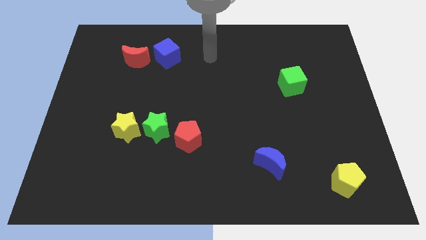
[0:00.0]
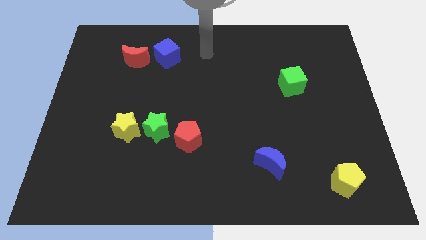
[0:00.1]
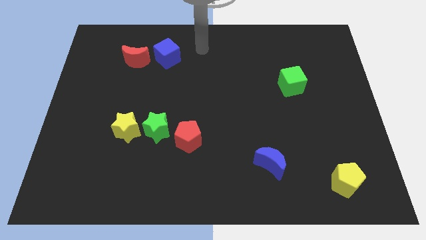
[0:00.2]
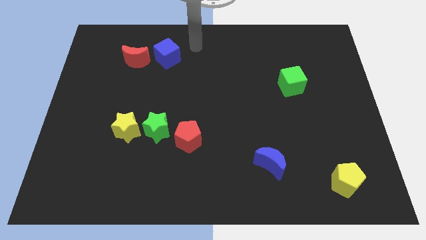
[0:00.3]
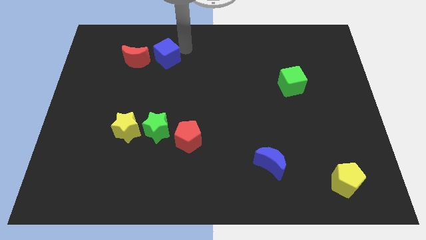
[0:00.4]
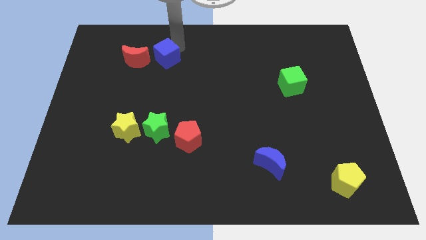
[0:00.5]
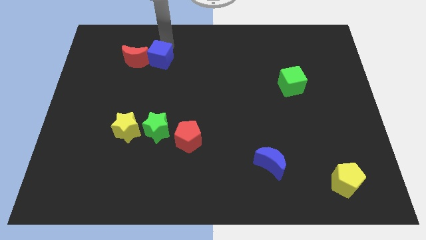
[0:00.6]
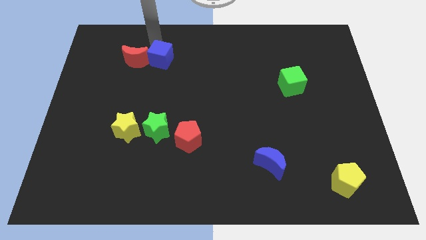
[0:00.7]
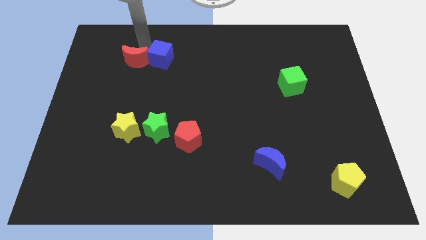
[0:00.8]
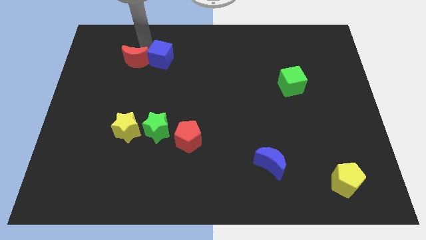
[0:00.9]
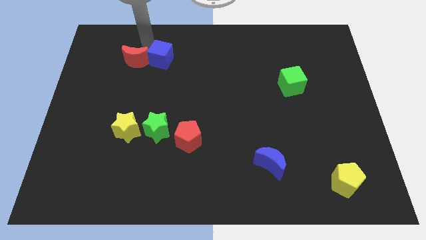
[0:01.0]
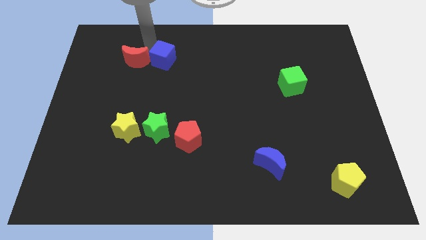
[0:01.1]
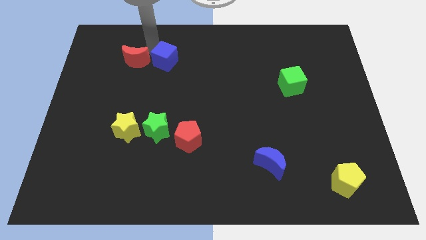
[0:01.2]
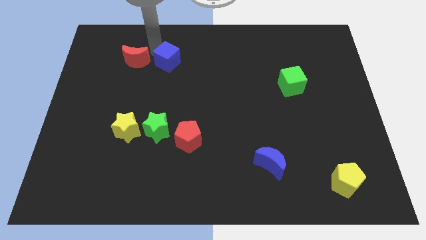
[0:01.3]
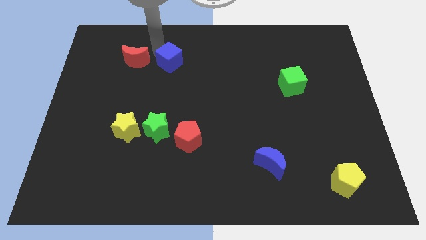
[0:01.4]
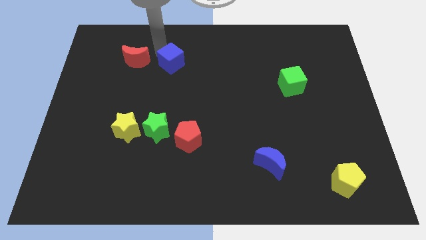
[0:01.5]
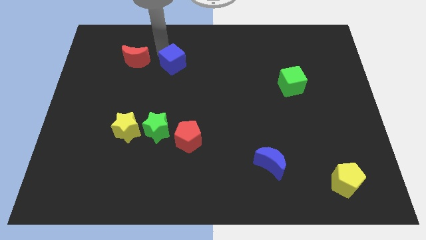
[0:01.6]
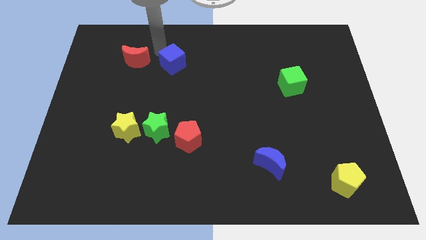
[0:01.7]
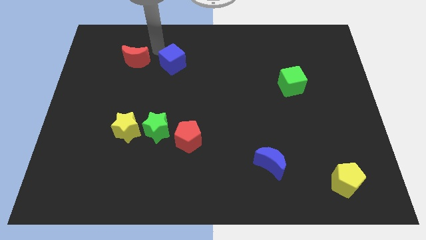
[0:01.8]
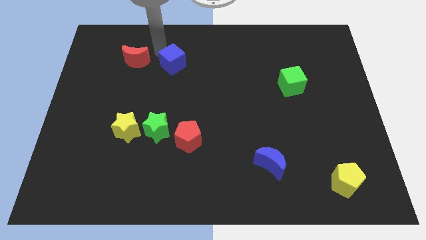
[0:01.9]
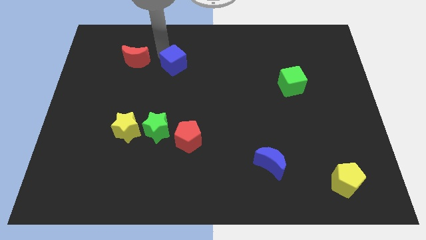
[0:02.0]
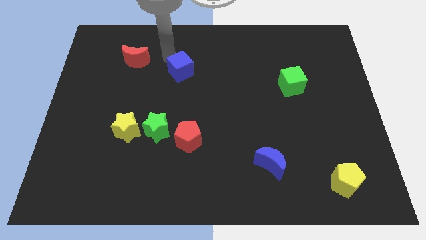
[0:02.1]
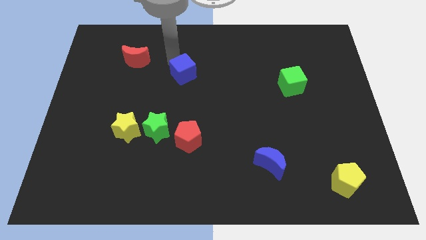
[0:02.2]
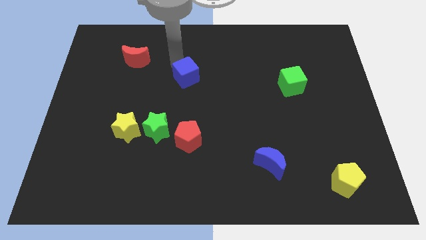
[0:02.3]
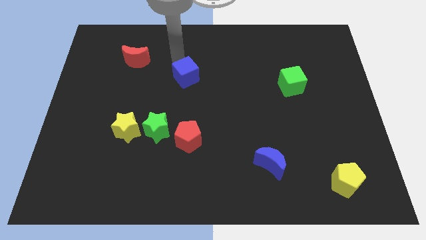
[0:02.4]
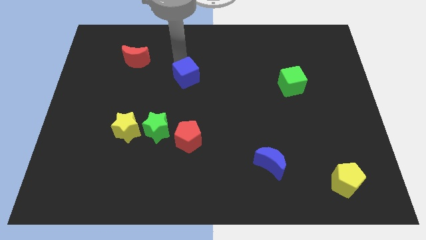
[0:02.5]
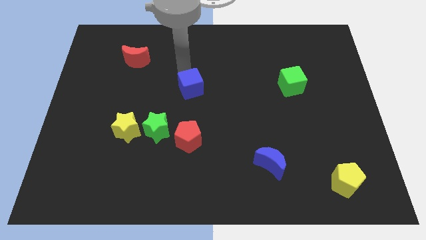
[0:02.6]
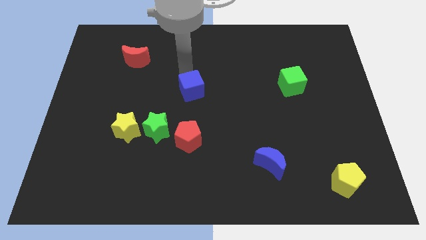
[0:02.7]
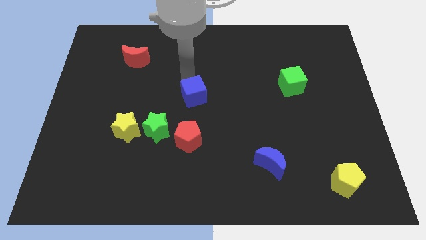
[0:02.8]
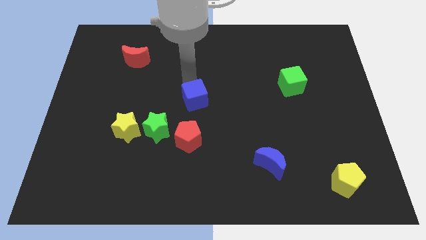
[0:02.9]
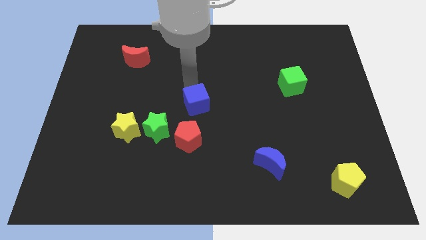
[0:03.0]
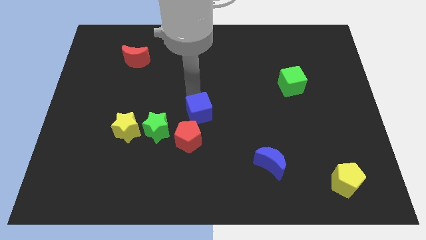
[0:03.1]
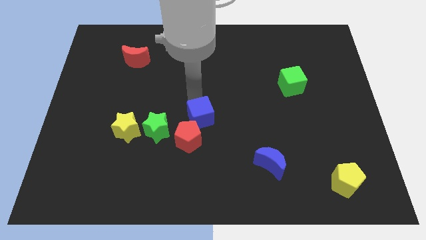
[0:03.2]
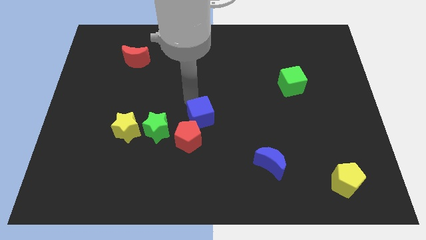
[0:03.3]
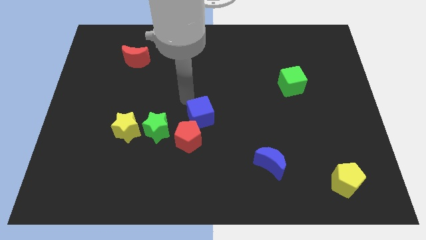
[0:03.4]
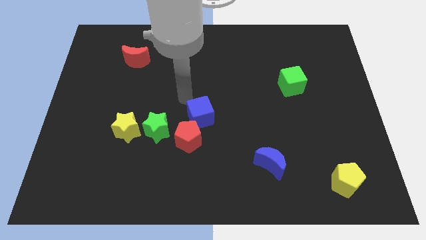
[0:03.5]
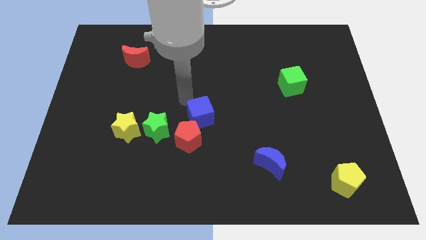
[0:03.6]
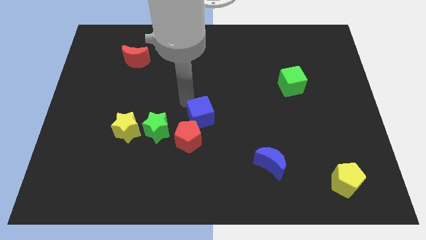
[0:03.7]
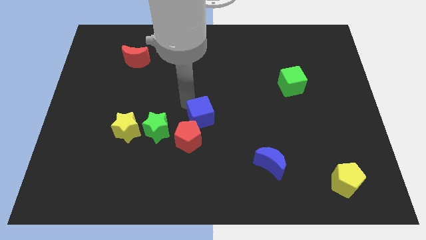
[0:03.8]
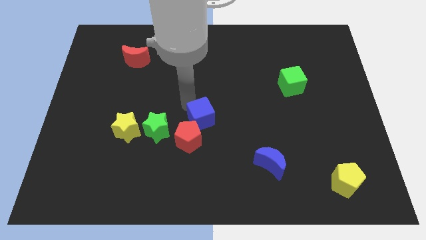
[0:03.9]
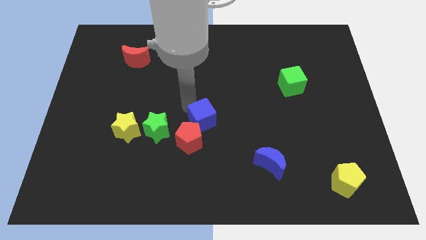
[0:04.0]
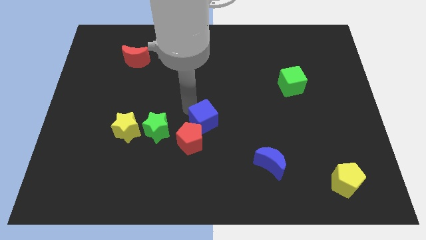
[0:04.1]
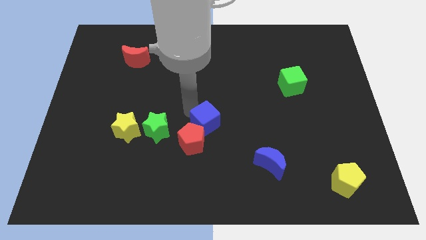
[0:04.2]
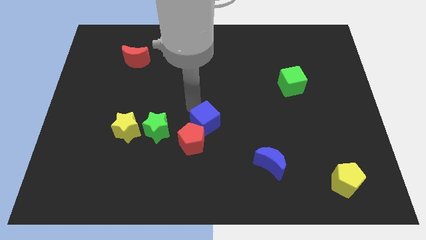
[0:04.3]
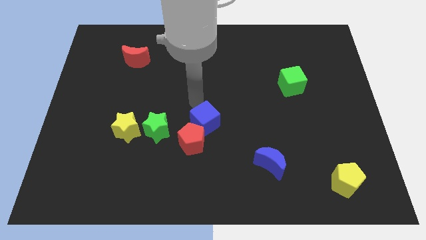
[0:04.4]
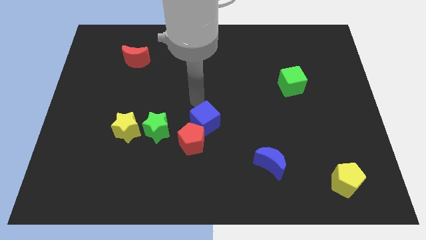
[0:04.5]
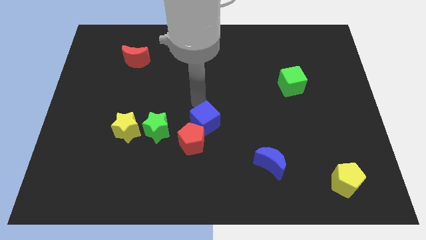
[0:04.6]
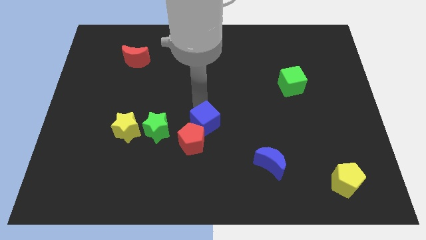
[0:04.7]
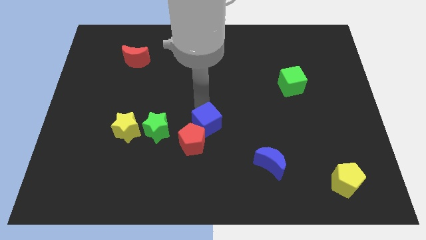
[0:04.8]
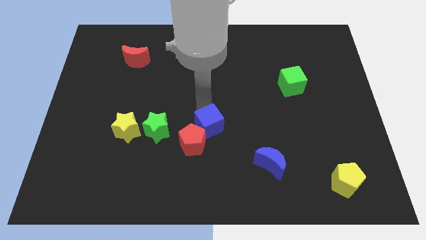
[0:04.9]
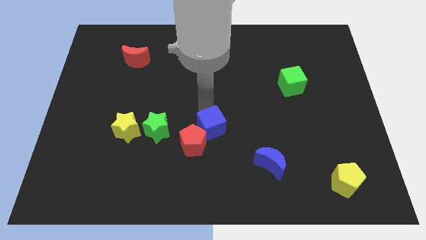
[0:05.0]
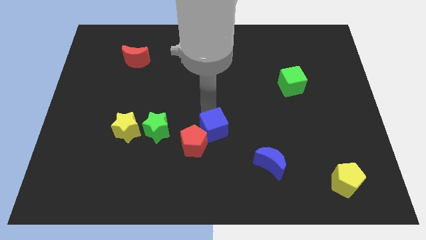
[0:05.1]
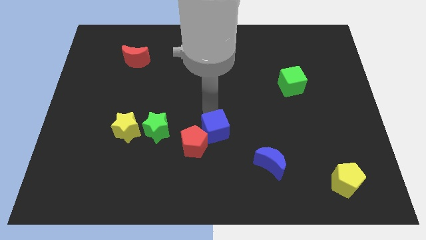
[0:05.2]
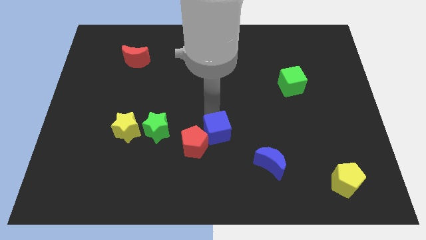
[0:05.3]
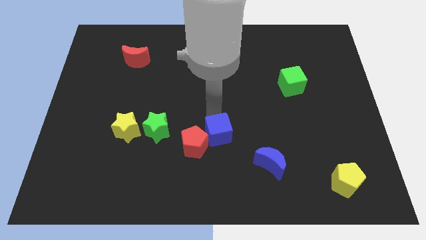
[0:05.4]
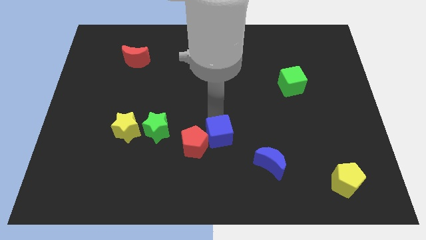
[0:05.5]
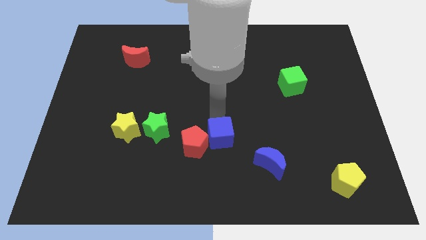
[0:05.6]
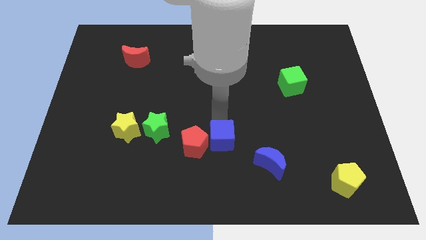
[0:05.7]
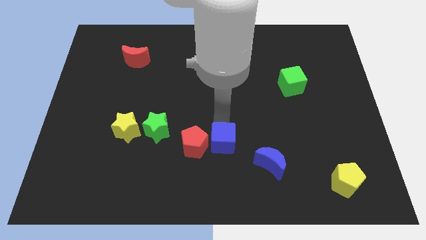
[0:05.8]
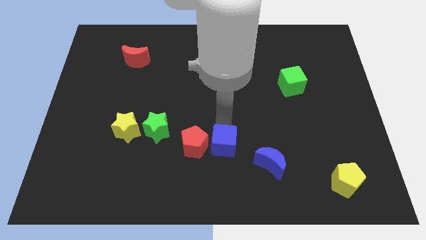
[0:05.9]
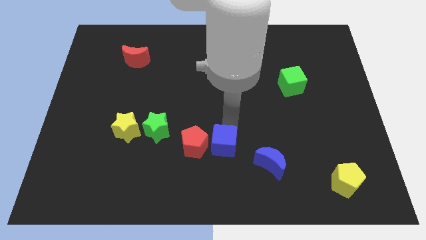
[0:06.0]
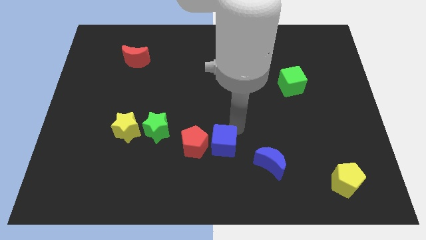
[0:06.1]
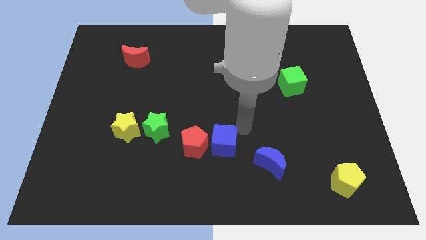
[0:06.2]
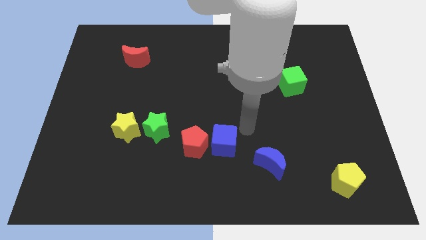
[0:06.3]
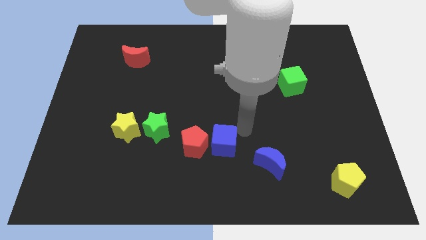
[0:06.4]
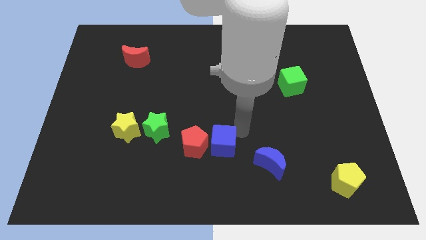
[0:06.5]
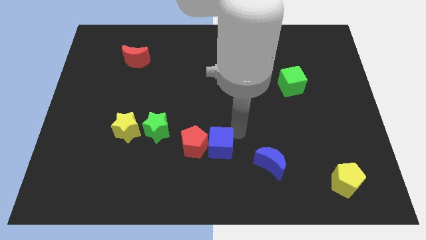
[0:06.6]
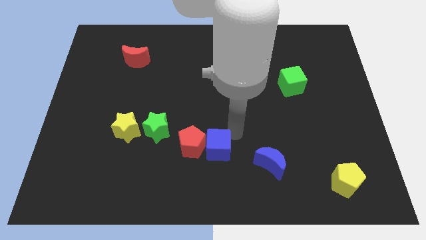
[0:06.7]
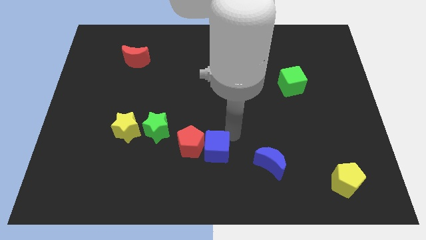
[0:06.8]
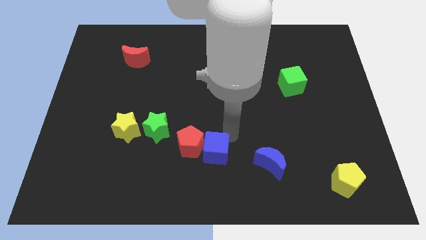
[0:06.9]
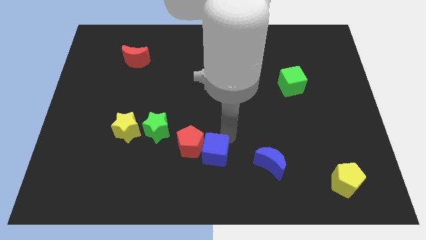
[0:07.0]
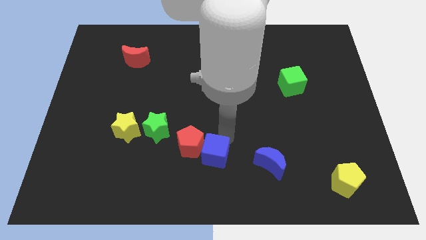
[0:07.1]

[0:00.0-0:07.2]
move the blue cube down

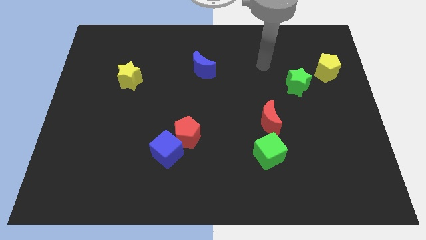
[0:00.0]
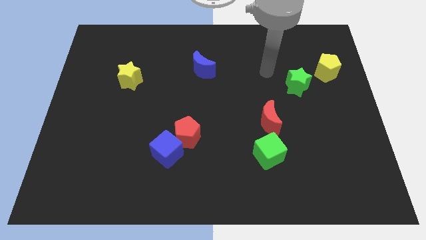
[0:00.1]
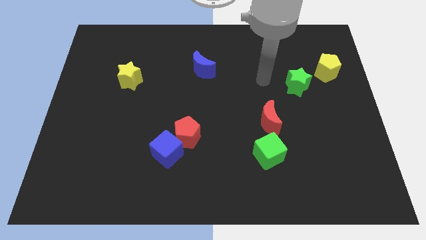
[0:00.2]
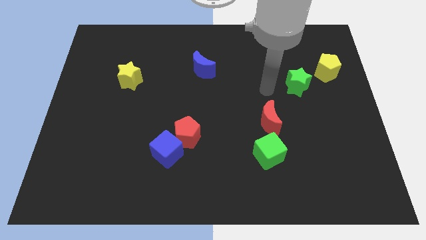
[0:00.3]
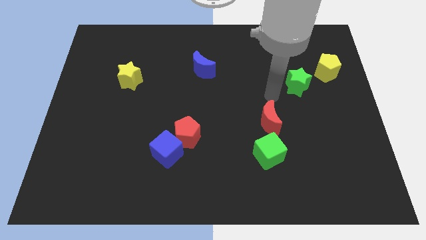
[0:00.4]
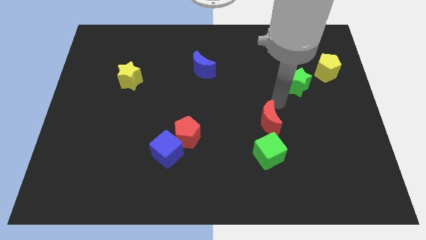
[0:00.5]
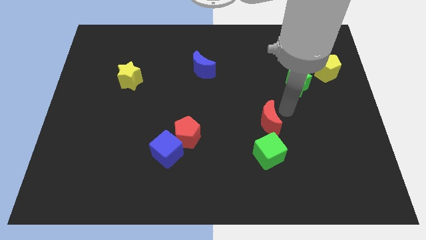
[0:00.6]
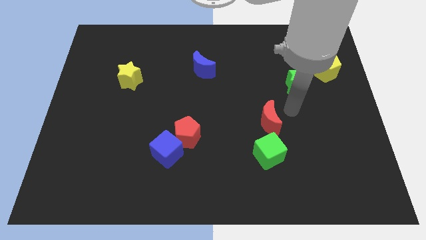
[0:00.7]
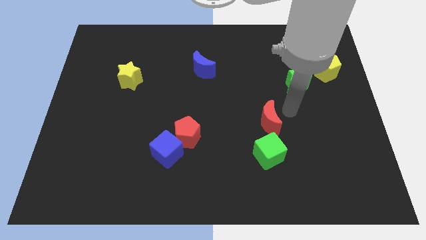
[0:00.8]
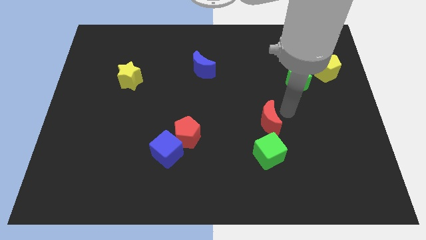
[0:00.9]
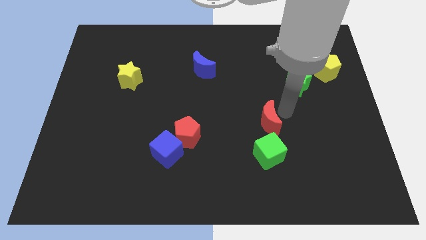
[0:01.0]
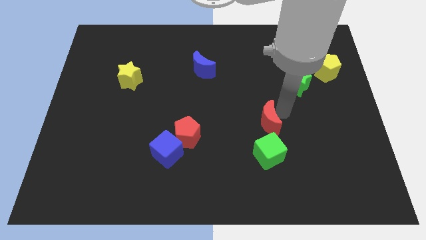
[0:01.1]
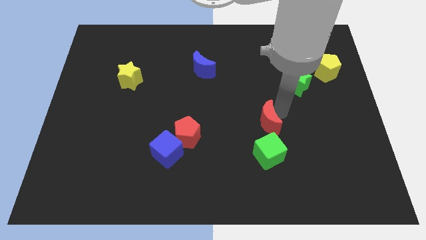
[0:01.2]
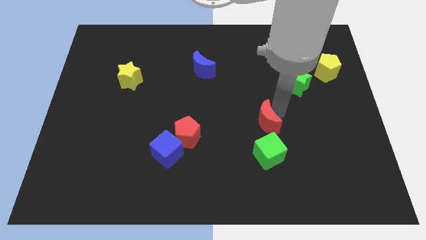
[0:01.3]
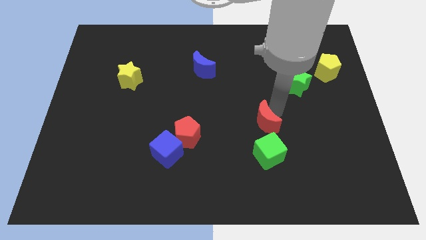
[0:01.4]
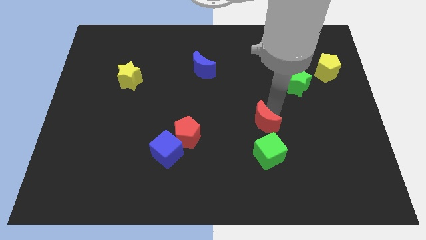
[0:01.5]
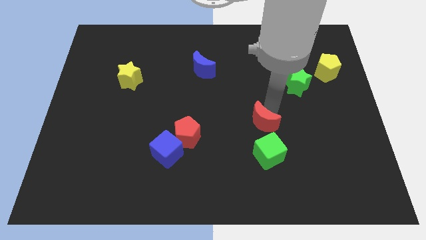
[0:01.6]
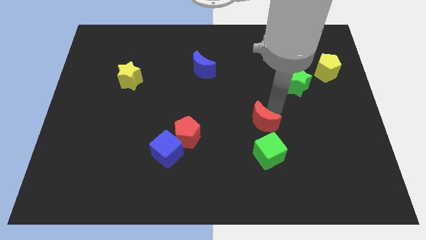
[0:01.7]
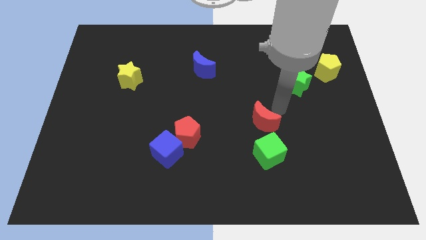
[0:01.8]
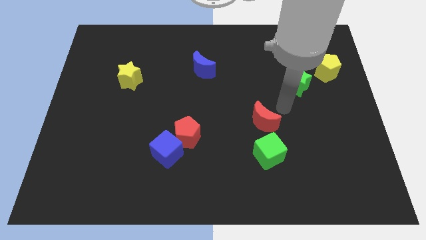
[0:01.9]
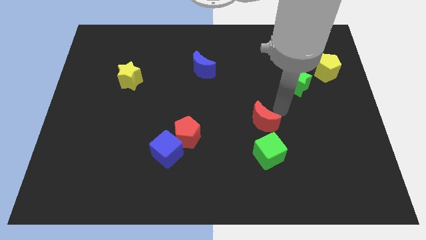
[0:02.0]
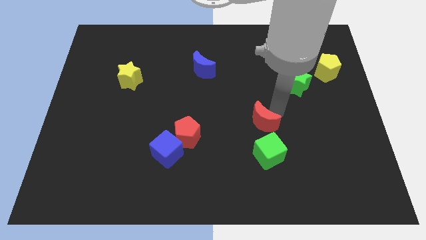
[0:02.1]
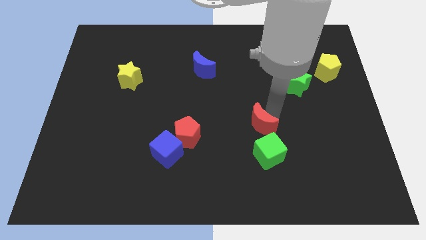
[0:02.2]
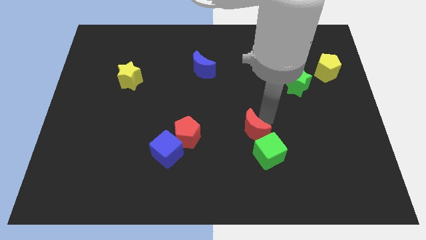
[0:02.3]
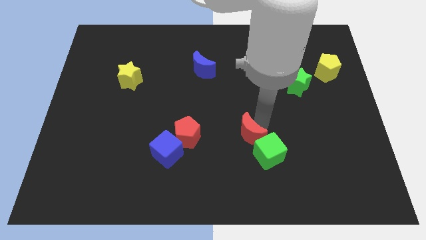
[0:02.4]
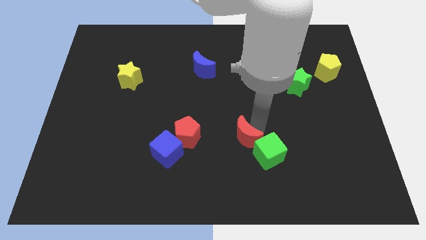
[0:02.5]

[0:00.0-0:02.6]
slide the red moon downwards and then left a little
